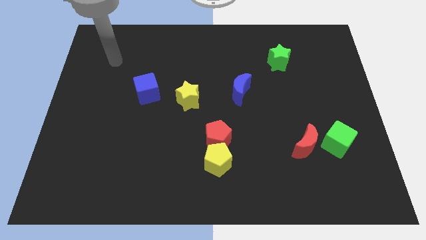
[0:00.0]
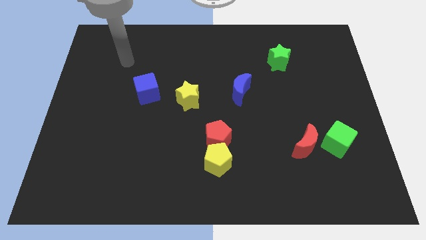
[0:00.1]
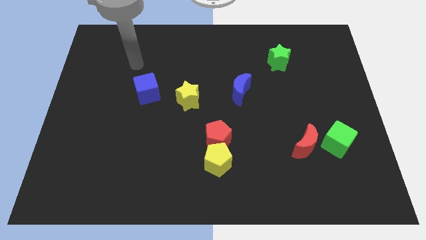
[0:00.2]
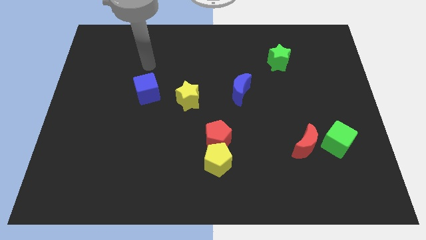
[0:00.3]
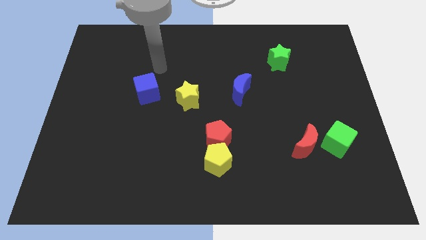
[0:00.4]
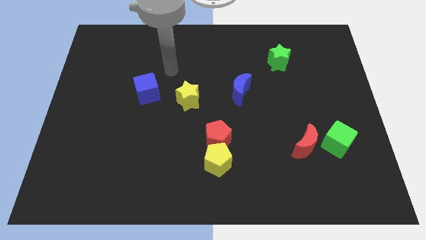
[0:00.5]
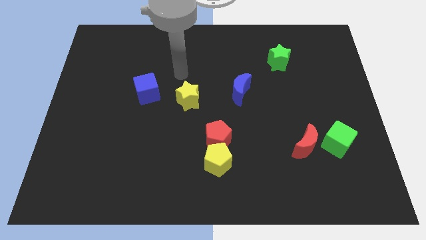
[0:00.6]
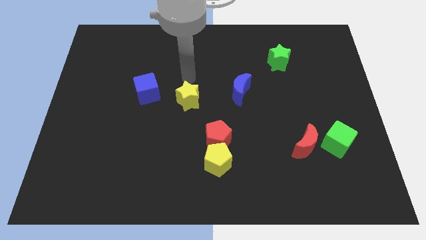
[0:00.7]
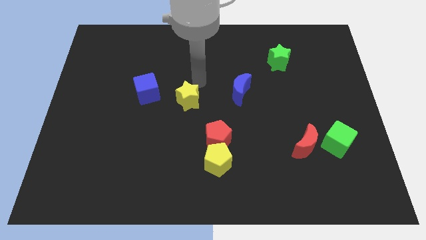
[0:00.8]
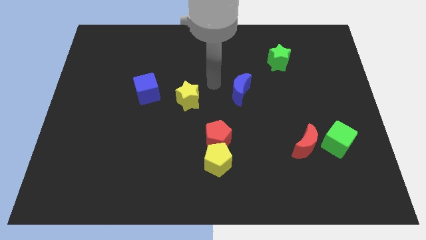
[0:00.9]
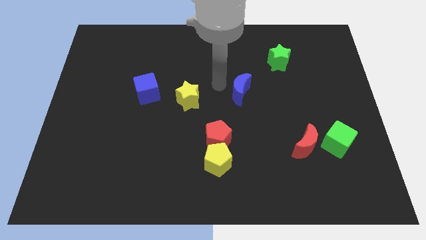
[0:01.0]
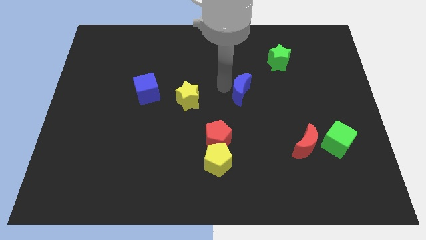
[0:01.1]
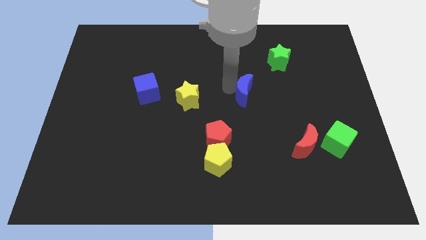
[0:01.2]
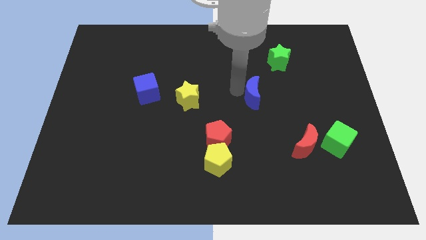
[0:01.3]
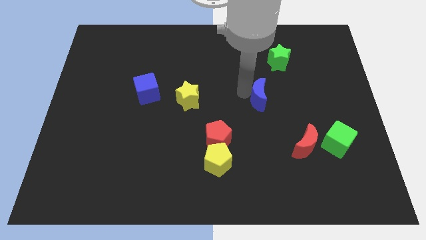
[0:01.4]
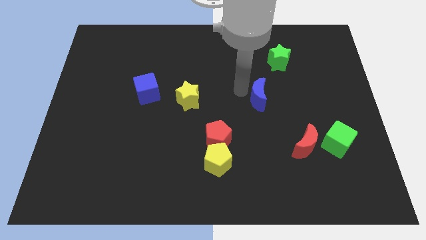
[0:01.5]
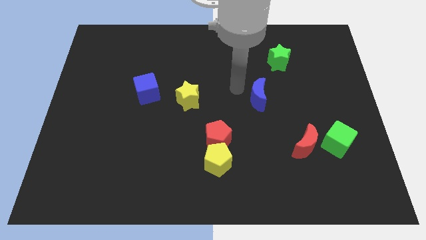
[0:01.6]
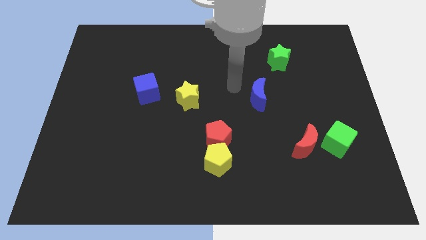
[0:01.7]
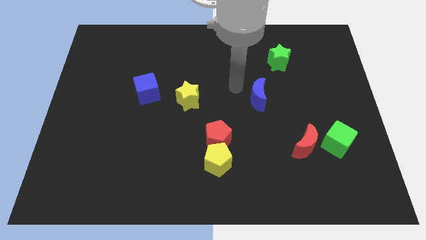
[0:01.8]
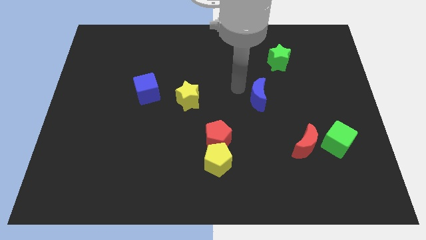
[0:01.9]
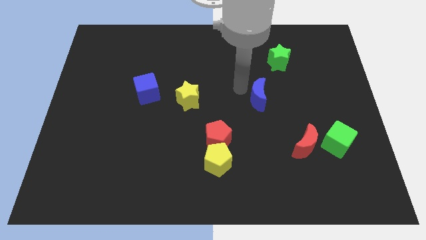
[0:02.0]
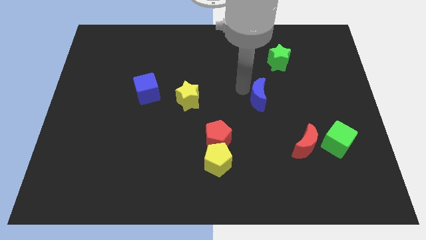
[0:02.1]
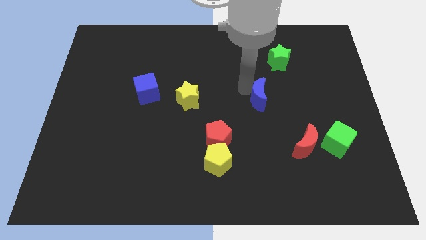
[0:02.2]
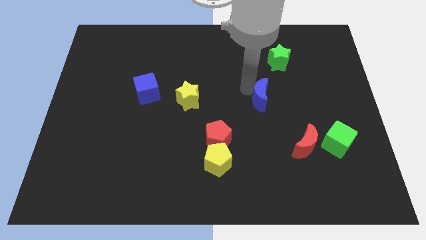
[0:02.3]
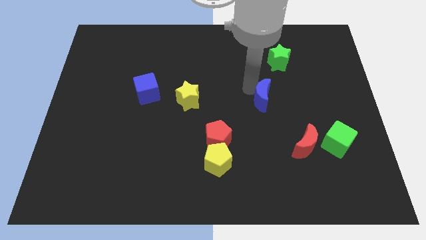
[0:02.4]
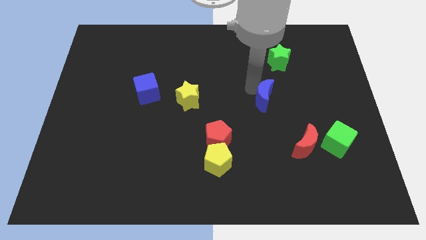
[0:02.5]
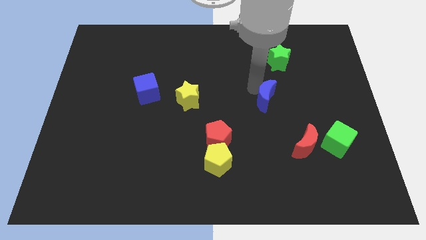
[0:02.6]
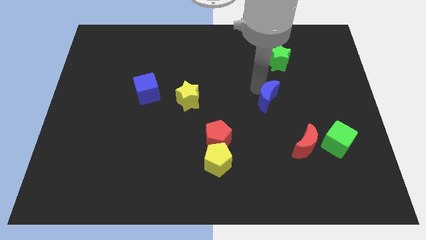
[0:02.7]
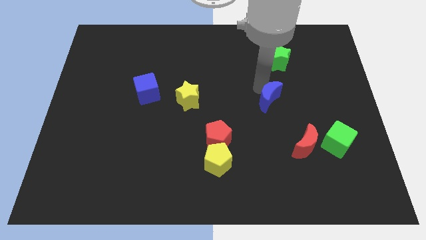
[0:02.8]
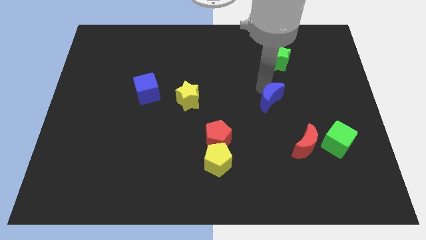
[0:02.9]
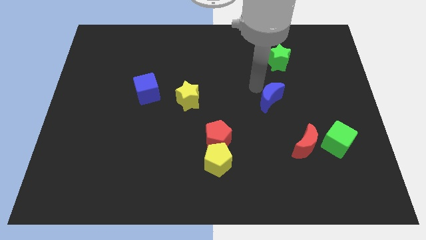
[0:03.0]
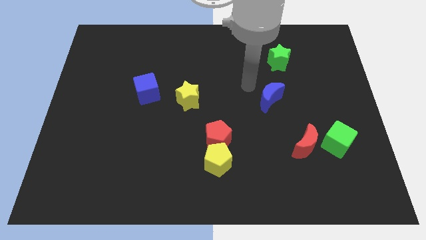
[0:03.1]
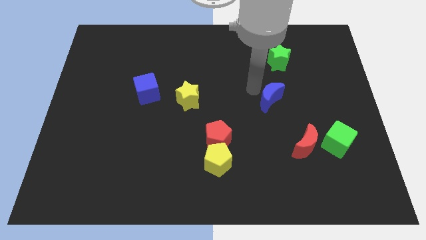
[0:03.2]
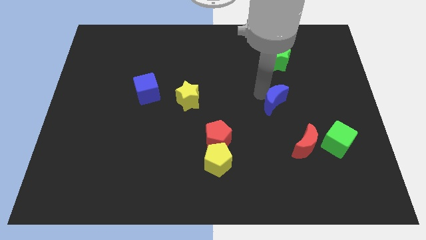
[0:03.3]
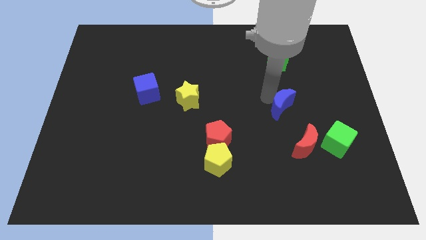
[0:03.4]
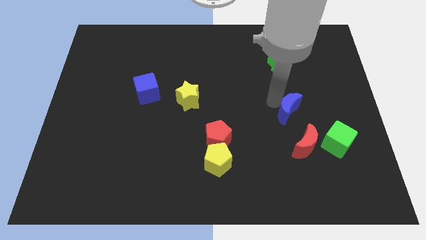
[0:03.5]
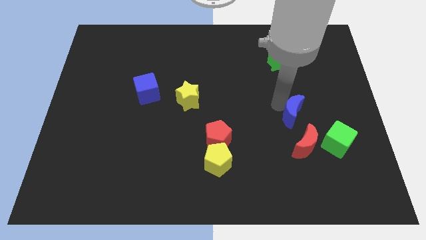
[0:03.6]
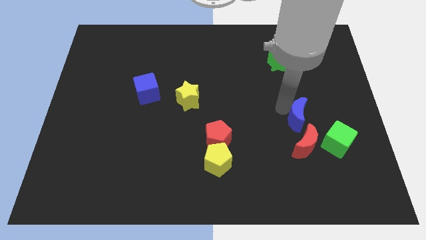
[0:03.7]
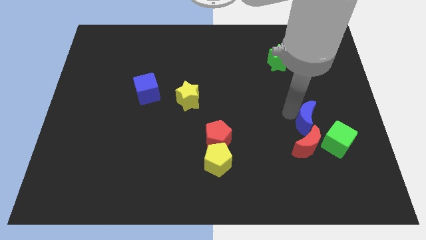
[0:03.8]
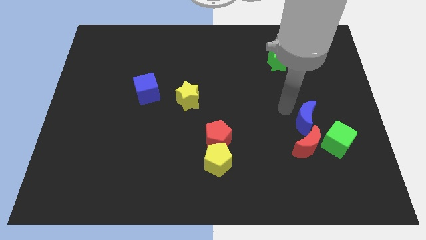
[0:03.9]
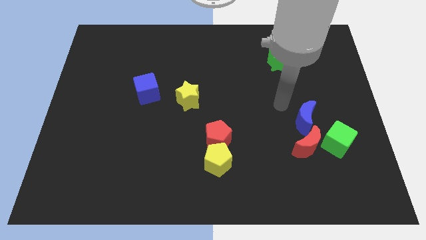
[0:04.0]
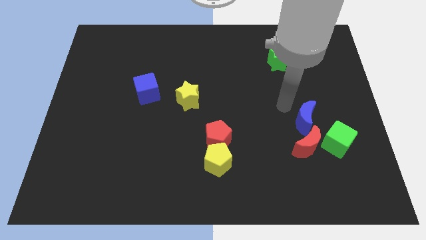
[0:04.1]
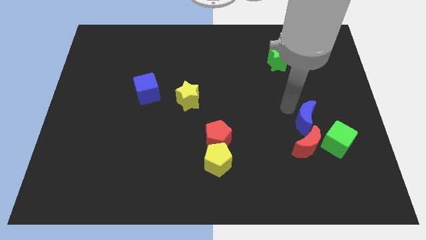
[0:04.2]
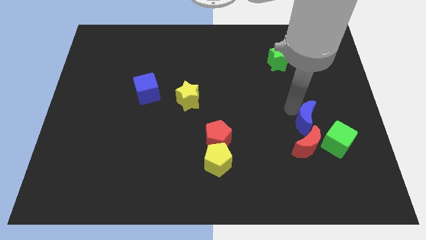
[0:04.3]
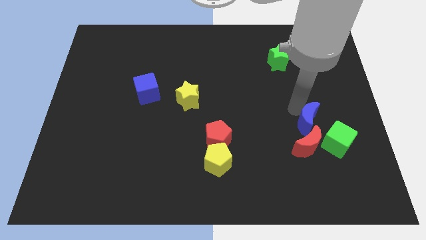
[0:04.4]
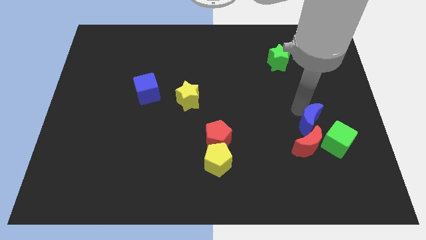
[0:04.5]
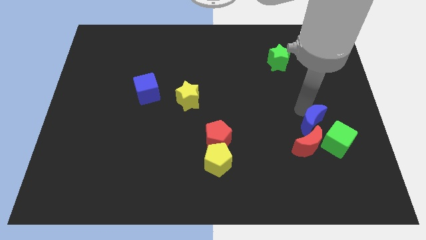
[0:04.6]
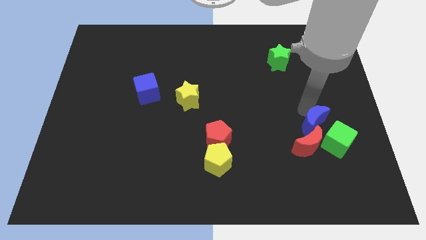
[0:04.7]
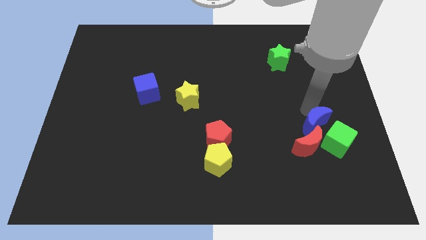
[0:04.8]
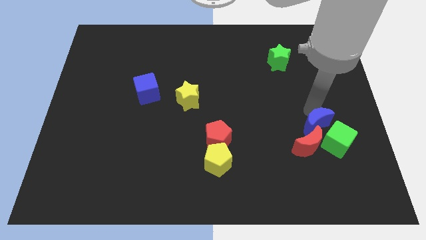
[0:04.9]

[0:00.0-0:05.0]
move the blue moon to the green cube

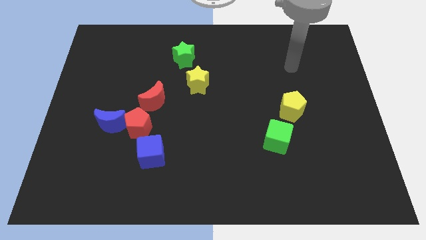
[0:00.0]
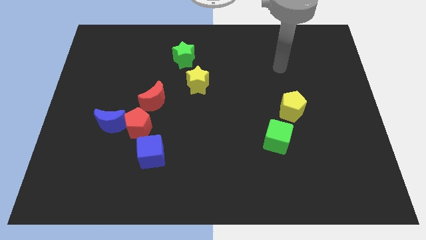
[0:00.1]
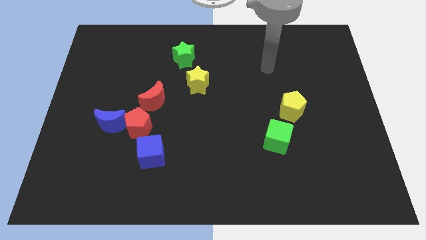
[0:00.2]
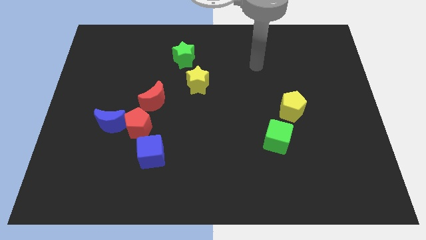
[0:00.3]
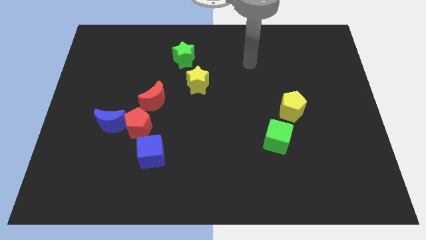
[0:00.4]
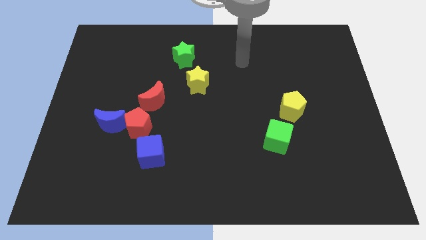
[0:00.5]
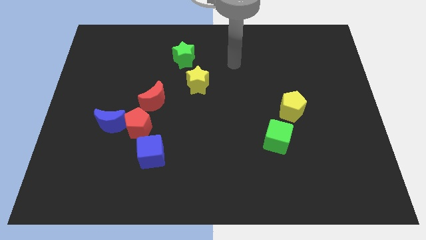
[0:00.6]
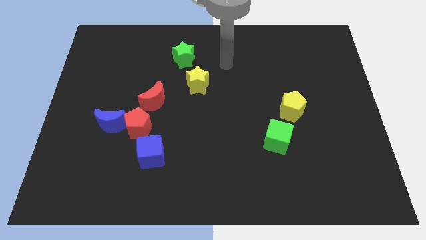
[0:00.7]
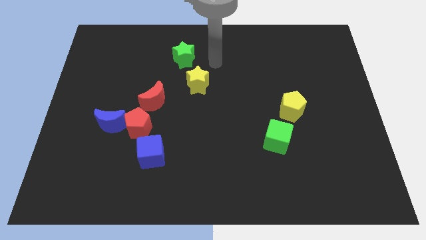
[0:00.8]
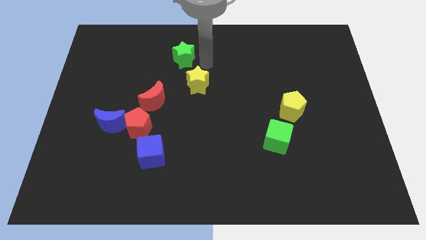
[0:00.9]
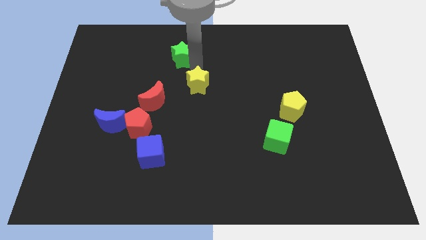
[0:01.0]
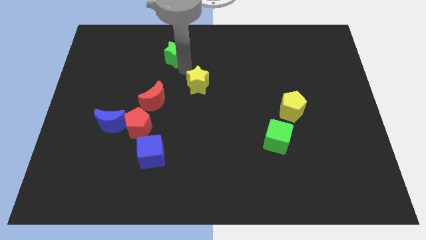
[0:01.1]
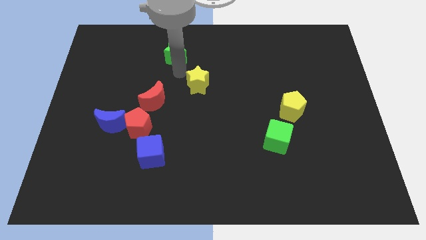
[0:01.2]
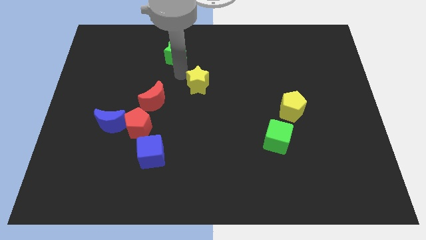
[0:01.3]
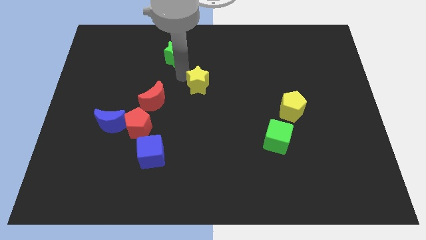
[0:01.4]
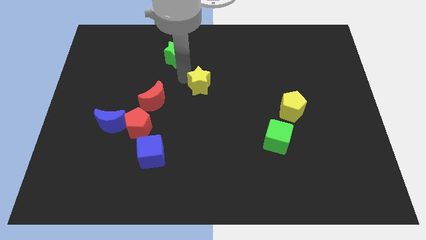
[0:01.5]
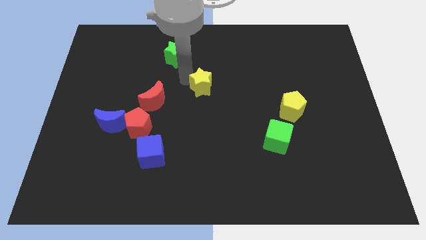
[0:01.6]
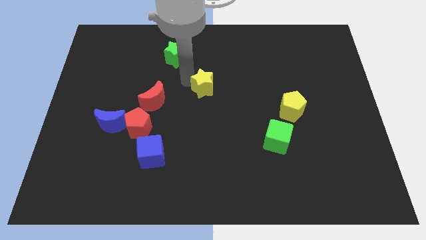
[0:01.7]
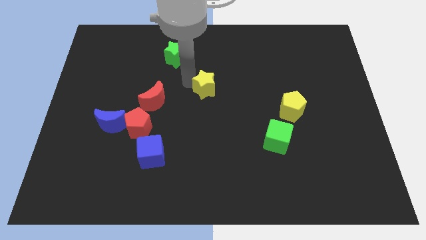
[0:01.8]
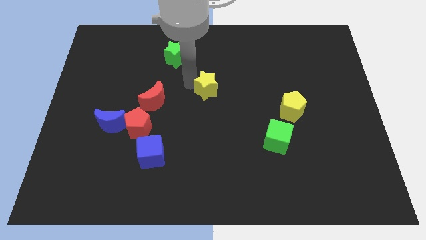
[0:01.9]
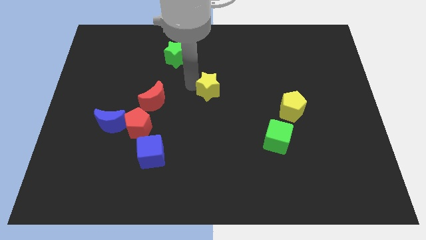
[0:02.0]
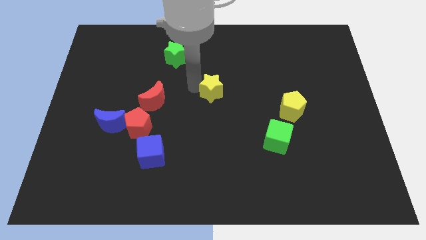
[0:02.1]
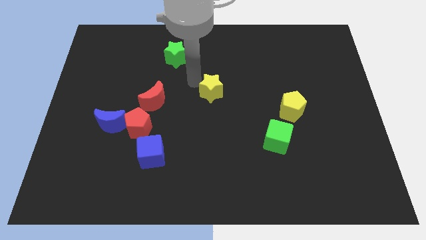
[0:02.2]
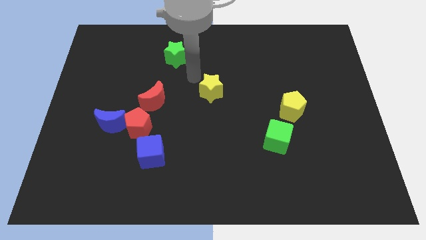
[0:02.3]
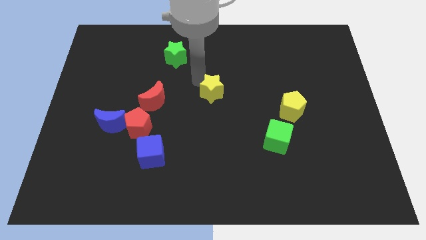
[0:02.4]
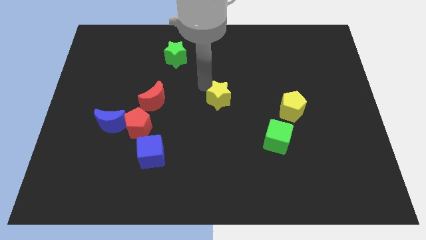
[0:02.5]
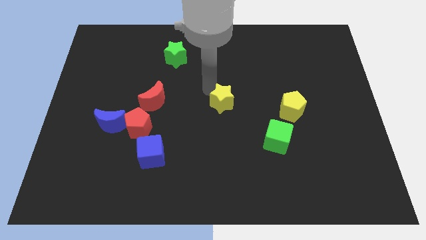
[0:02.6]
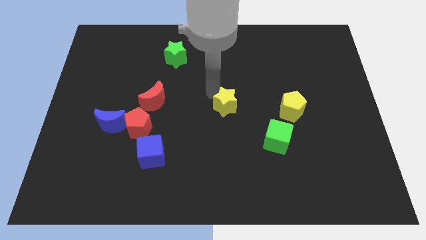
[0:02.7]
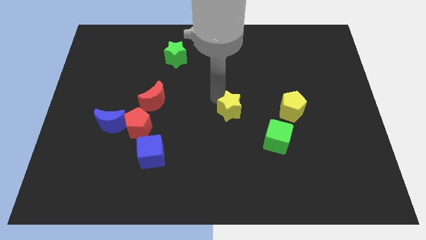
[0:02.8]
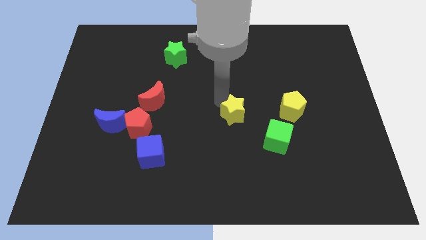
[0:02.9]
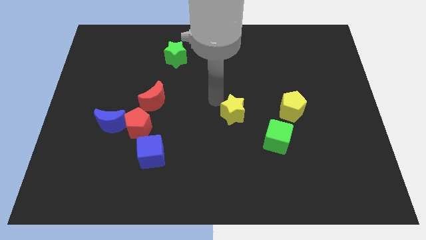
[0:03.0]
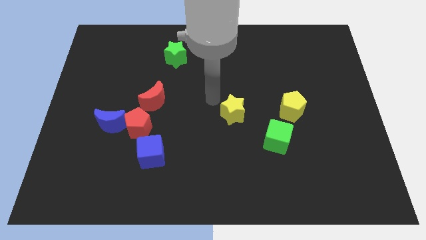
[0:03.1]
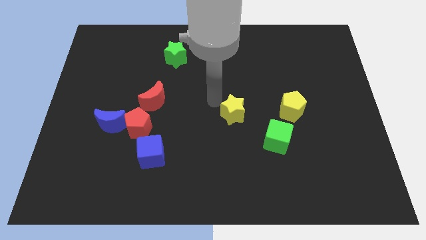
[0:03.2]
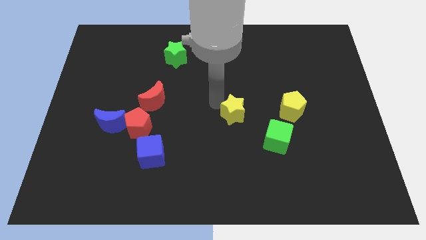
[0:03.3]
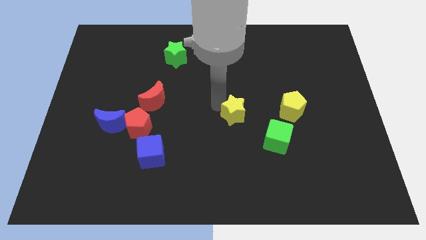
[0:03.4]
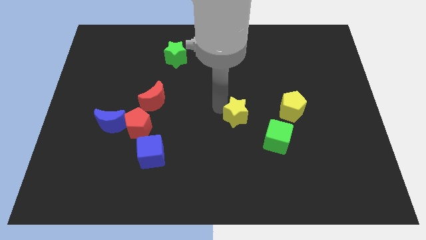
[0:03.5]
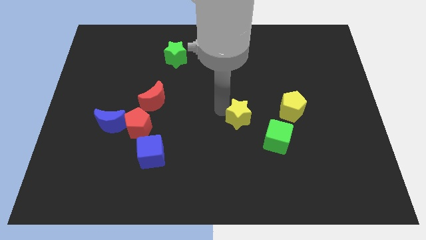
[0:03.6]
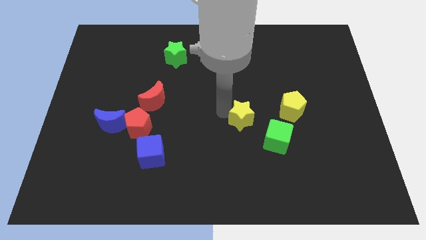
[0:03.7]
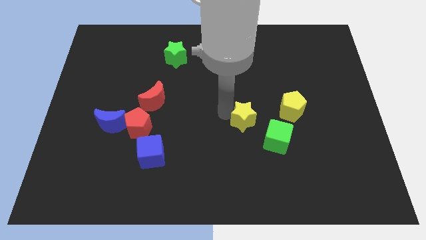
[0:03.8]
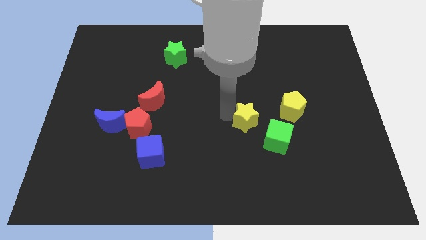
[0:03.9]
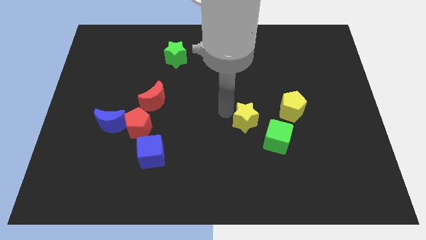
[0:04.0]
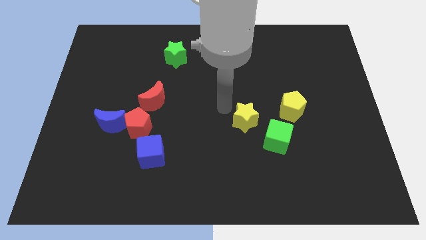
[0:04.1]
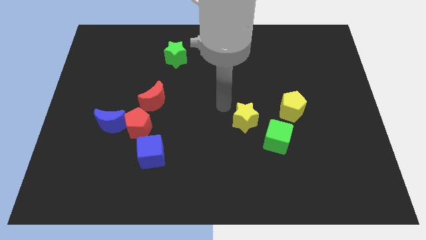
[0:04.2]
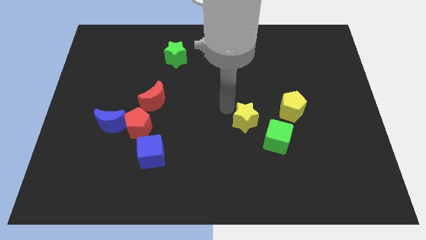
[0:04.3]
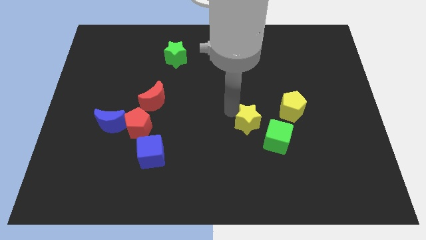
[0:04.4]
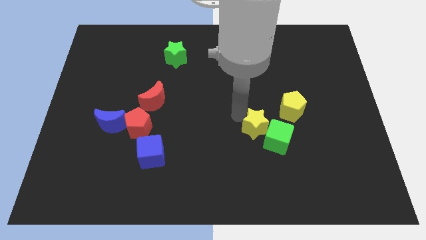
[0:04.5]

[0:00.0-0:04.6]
move the yellow star towards the green cube
